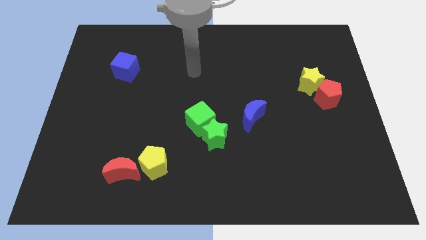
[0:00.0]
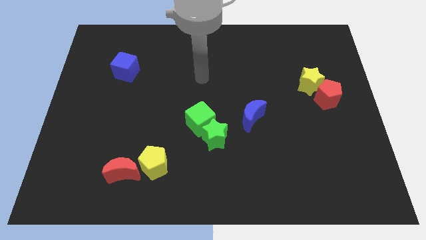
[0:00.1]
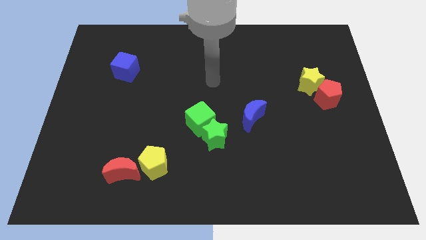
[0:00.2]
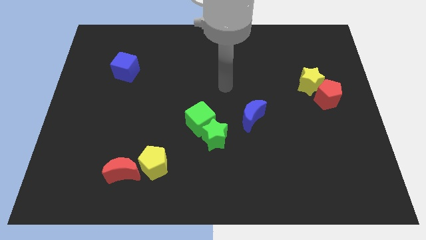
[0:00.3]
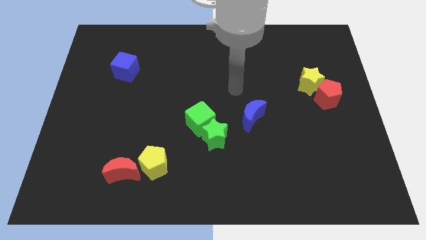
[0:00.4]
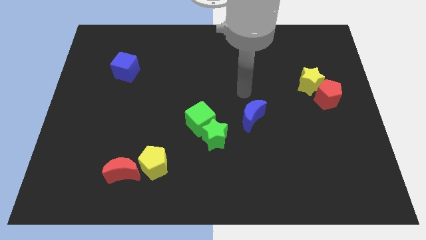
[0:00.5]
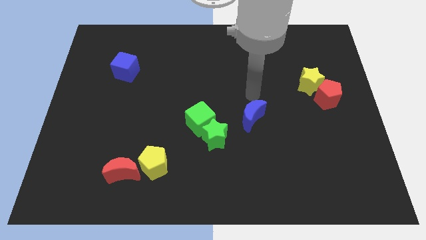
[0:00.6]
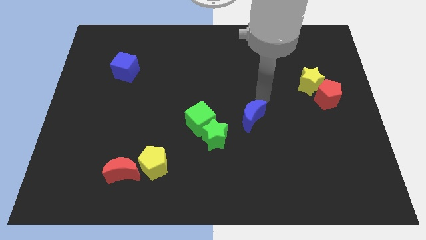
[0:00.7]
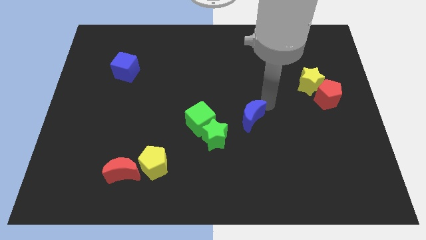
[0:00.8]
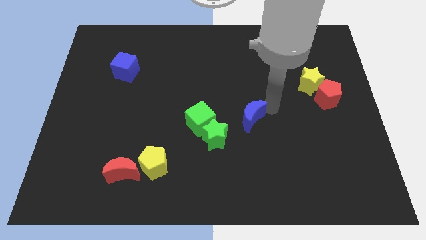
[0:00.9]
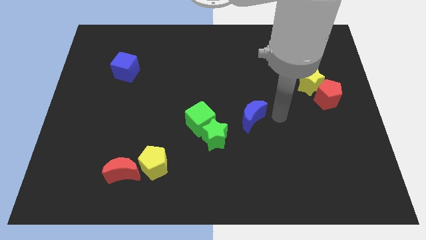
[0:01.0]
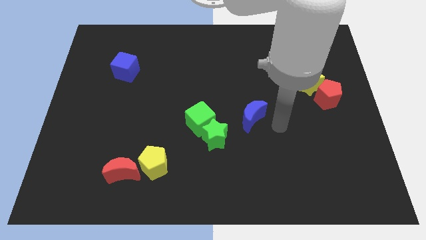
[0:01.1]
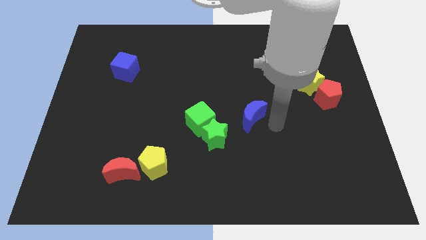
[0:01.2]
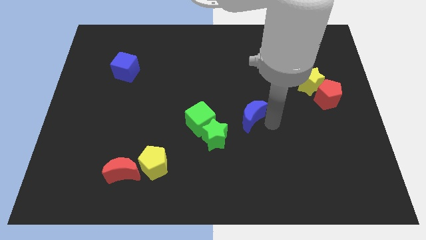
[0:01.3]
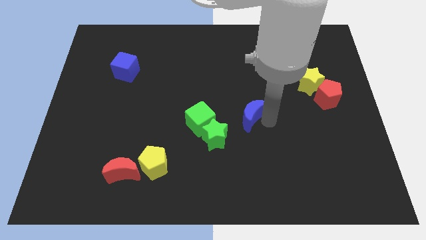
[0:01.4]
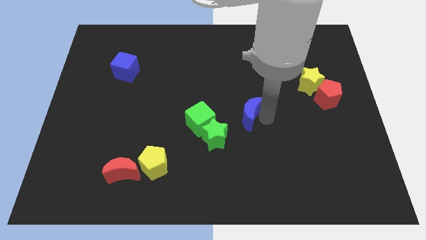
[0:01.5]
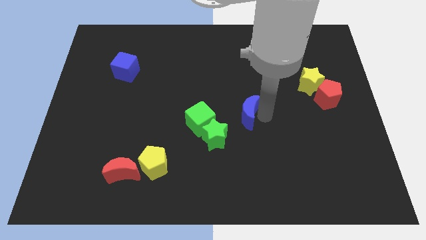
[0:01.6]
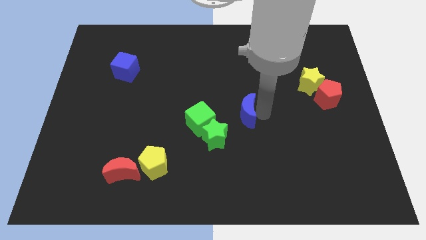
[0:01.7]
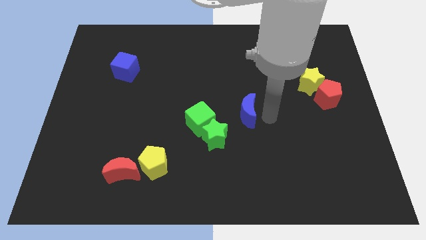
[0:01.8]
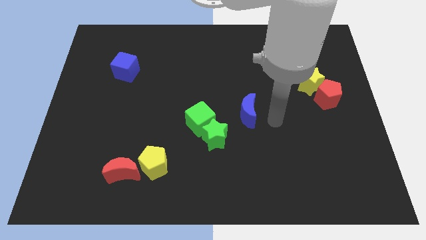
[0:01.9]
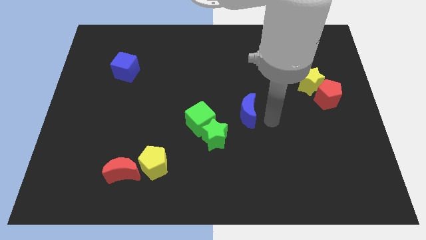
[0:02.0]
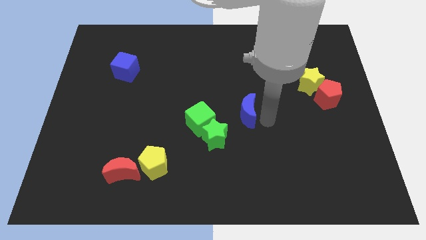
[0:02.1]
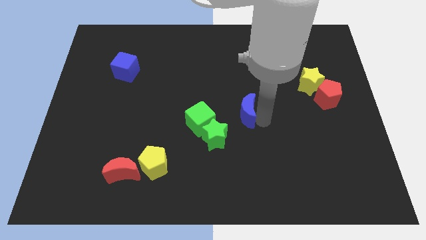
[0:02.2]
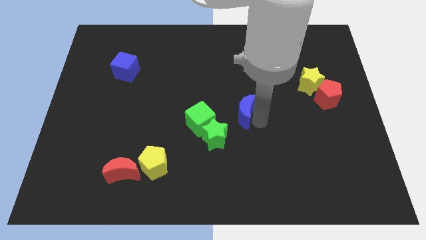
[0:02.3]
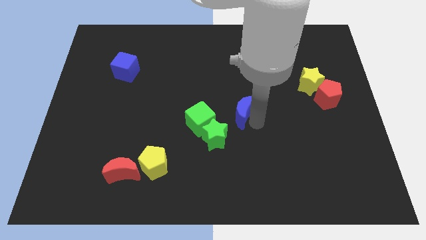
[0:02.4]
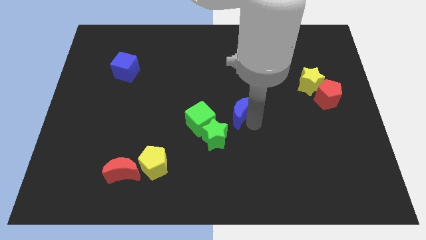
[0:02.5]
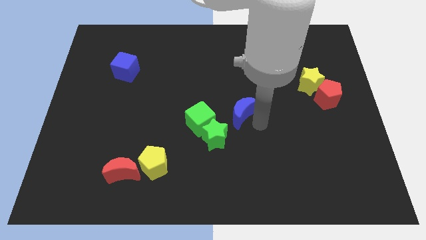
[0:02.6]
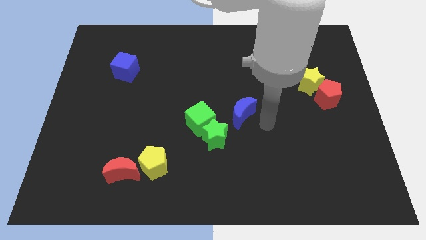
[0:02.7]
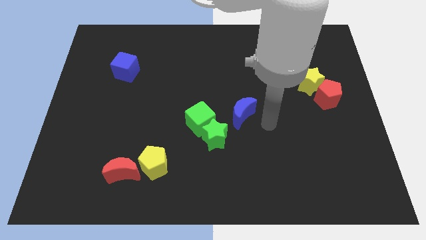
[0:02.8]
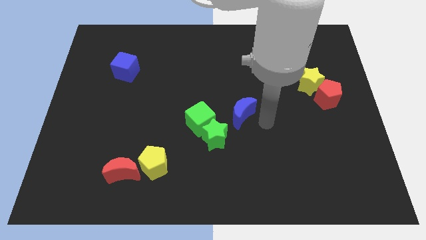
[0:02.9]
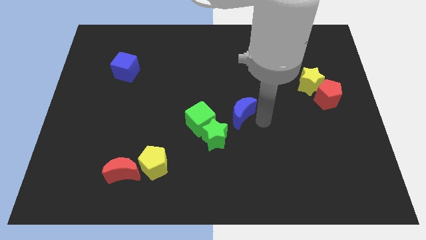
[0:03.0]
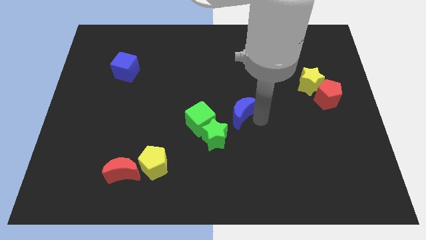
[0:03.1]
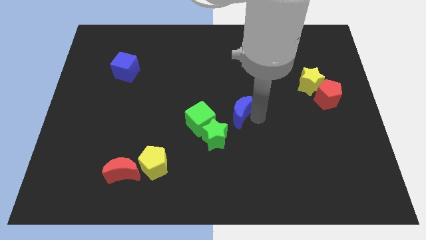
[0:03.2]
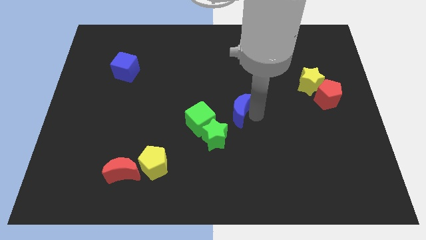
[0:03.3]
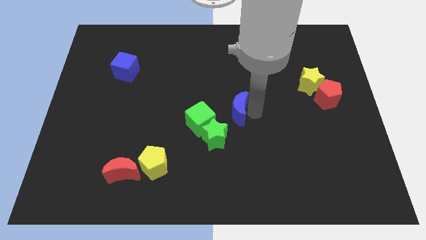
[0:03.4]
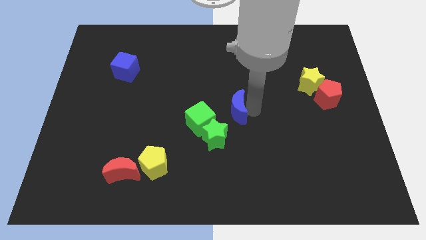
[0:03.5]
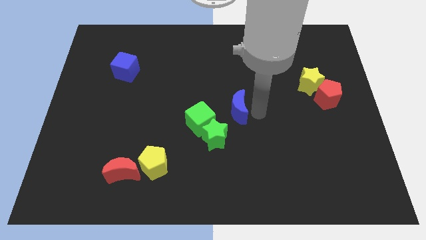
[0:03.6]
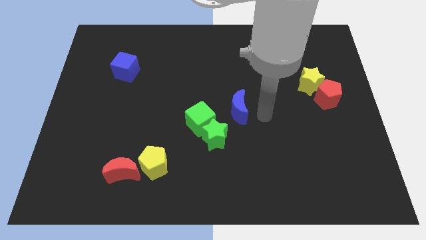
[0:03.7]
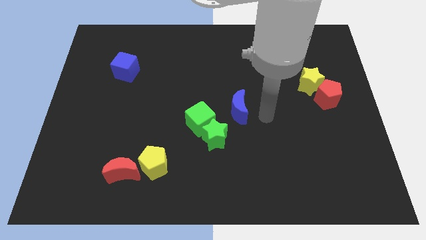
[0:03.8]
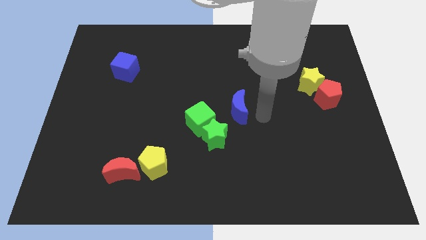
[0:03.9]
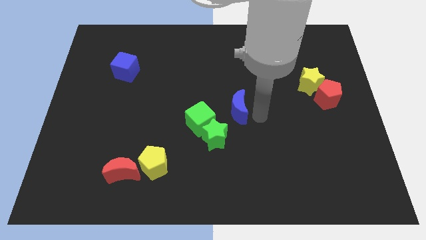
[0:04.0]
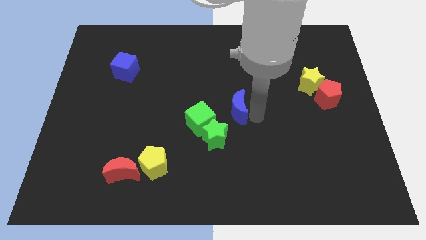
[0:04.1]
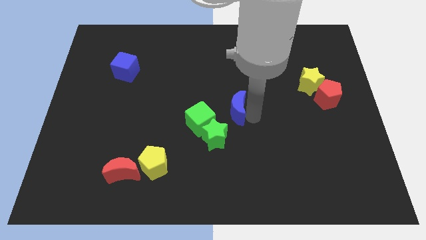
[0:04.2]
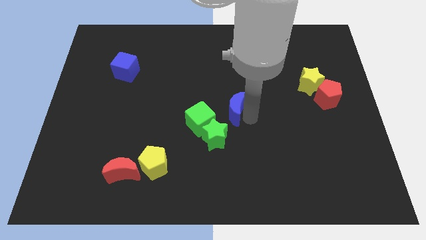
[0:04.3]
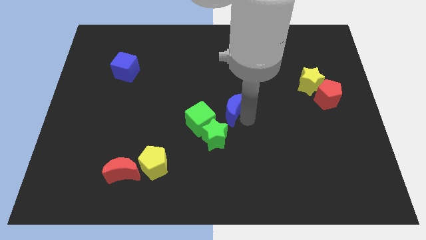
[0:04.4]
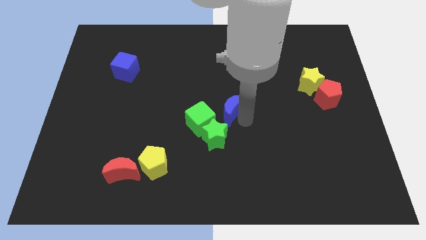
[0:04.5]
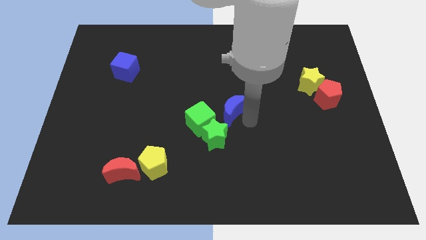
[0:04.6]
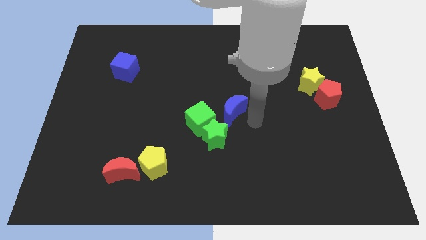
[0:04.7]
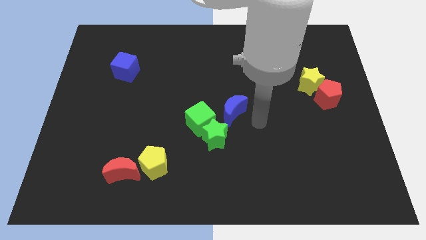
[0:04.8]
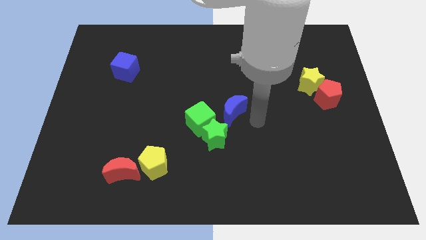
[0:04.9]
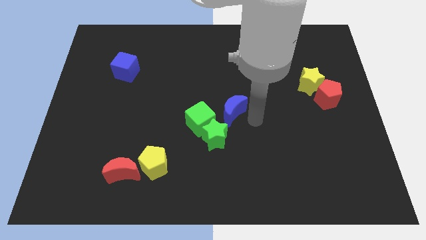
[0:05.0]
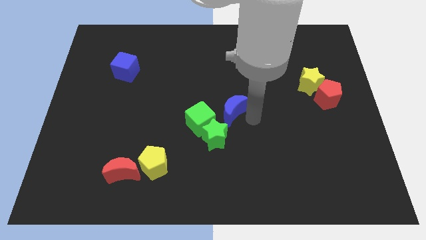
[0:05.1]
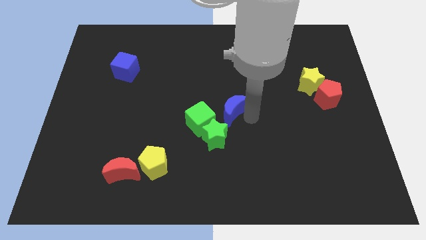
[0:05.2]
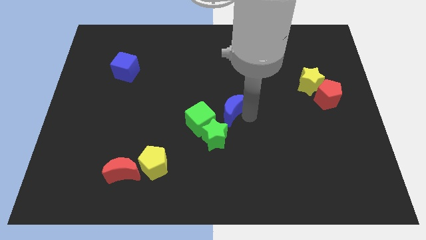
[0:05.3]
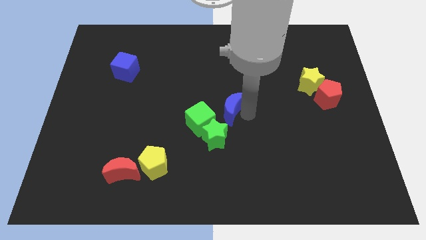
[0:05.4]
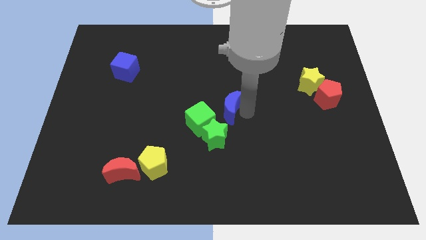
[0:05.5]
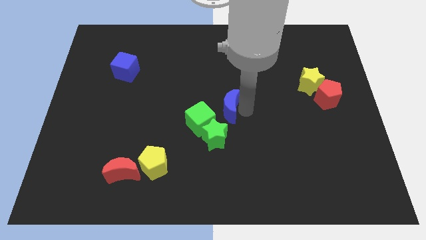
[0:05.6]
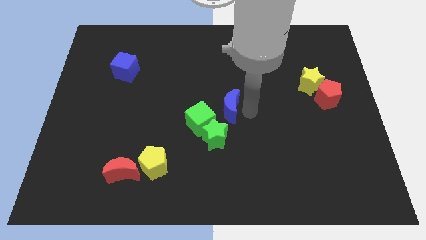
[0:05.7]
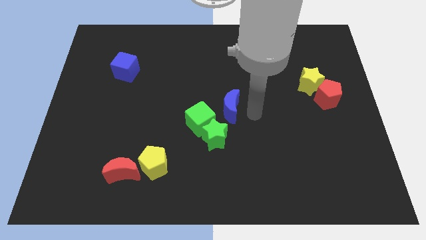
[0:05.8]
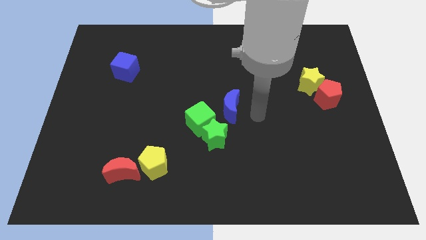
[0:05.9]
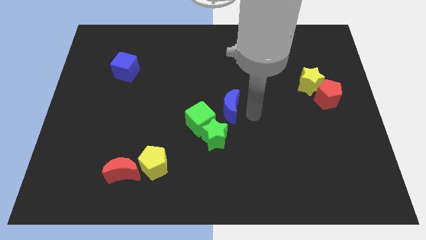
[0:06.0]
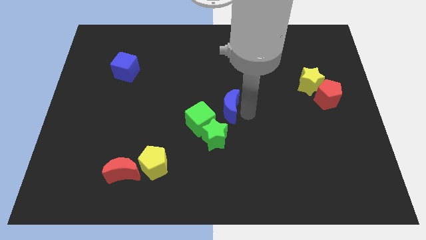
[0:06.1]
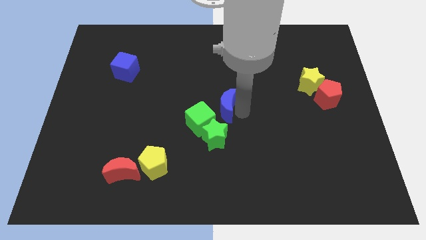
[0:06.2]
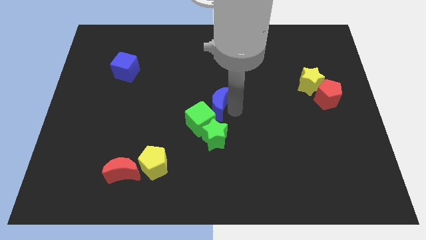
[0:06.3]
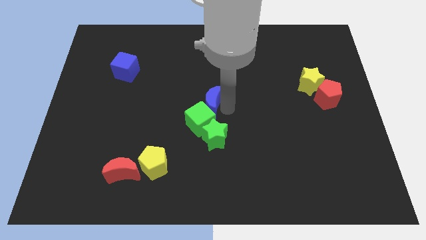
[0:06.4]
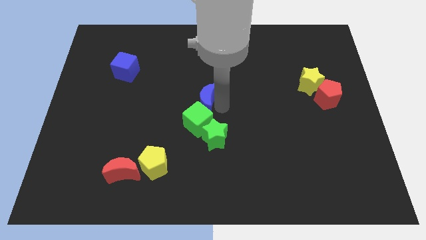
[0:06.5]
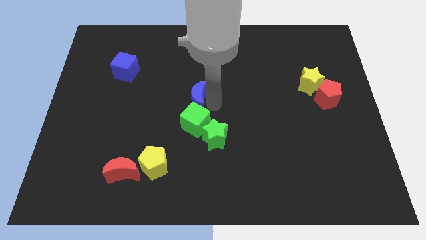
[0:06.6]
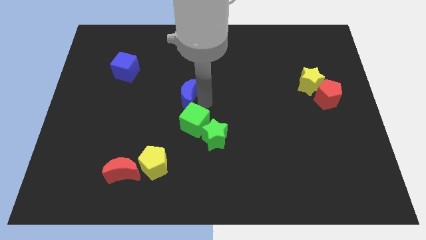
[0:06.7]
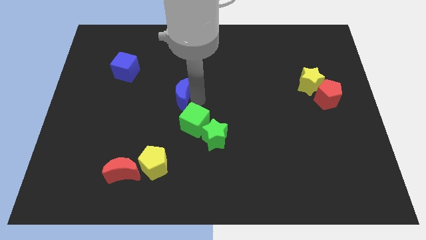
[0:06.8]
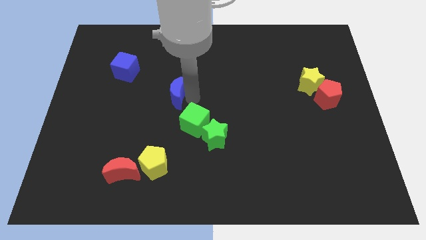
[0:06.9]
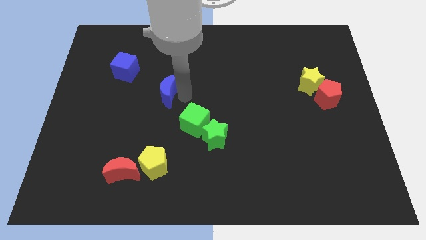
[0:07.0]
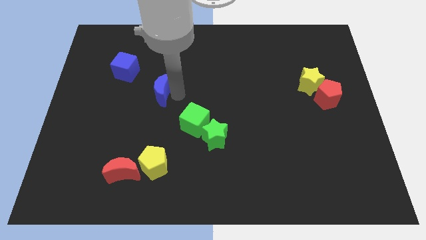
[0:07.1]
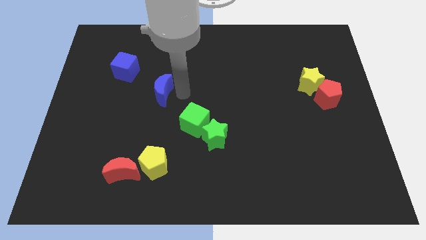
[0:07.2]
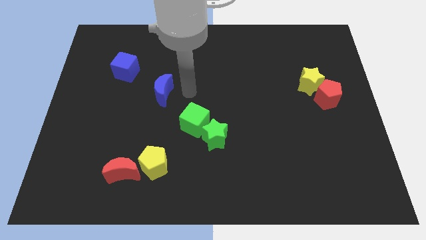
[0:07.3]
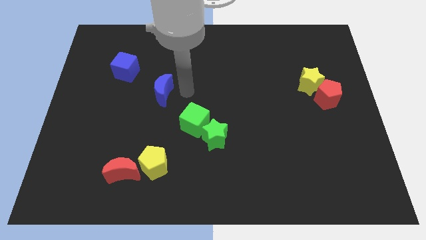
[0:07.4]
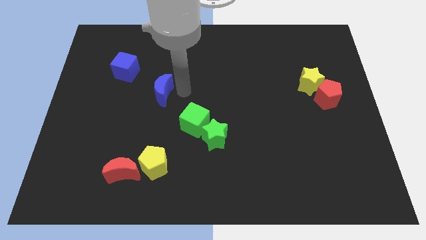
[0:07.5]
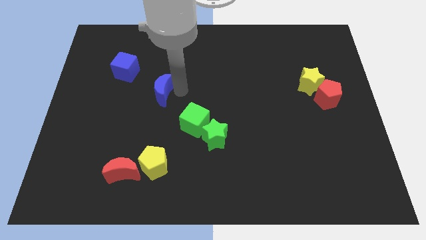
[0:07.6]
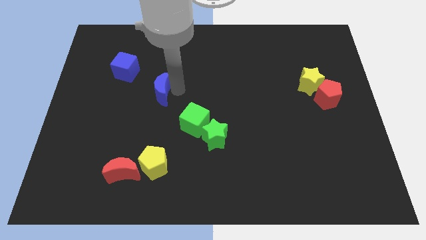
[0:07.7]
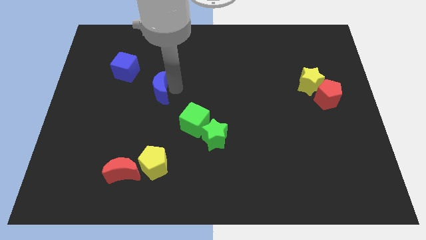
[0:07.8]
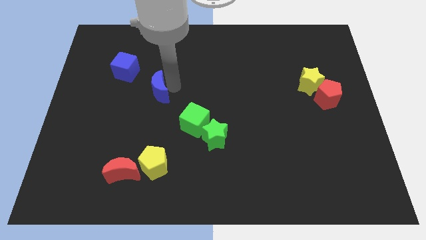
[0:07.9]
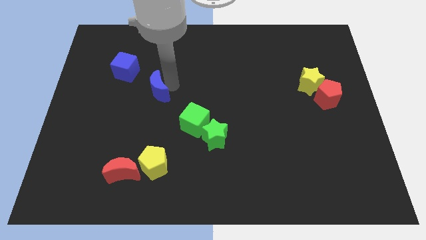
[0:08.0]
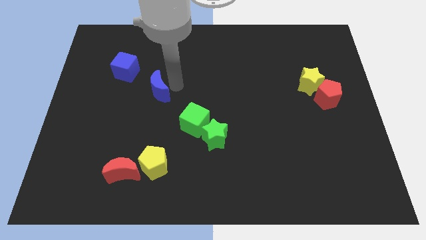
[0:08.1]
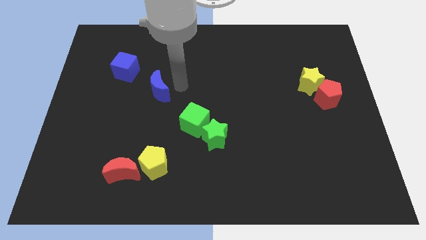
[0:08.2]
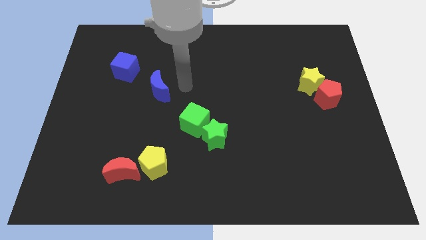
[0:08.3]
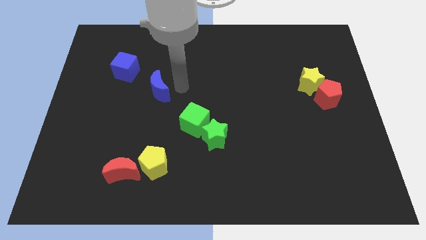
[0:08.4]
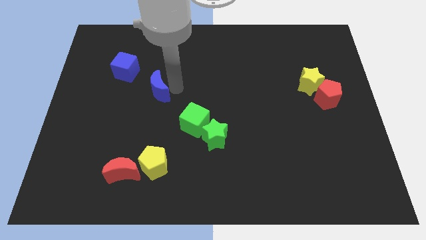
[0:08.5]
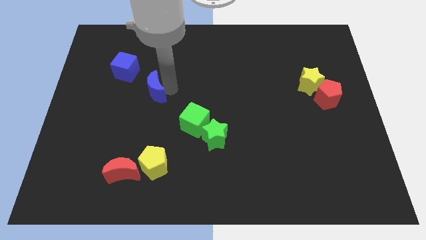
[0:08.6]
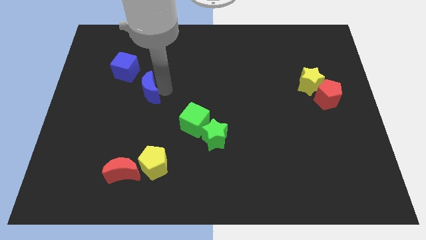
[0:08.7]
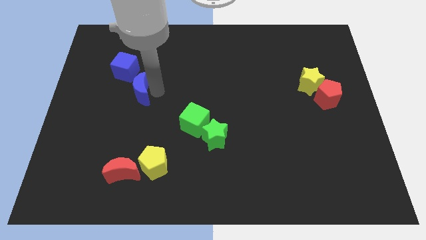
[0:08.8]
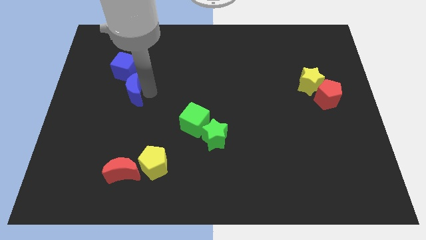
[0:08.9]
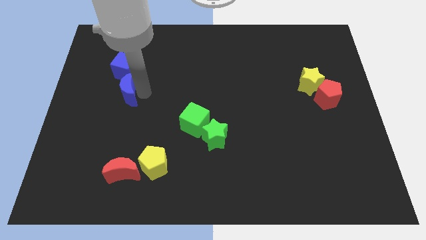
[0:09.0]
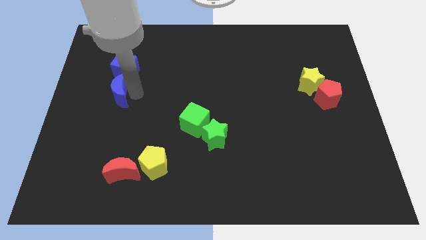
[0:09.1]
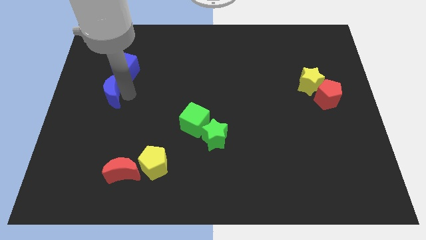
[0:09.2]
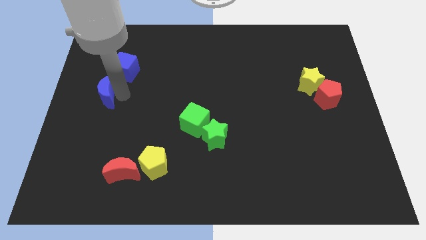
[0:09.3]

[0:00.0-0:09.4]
slide the blue moon to the center left
